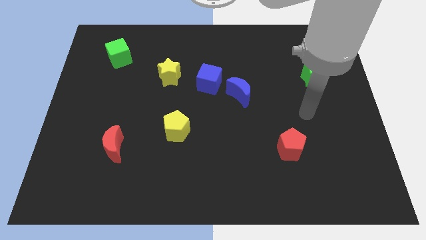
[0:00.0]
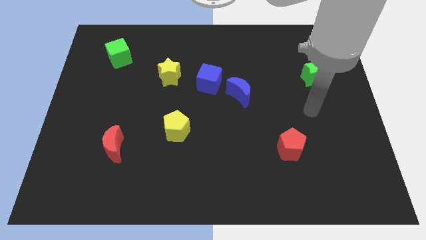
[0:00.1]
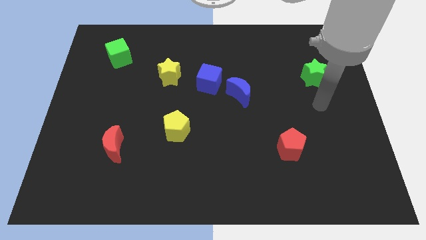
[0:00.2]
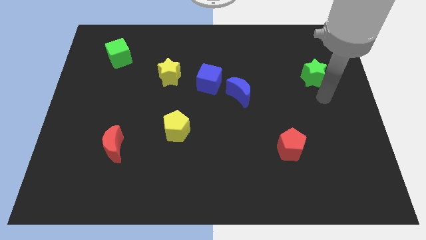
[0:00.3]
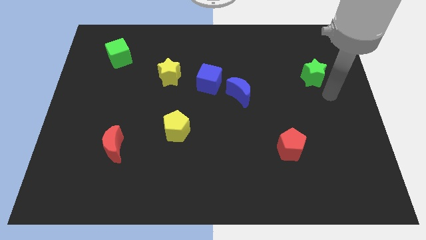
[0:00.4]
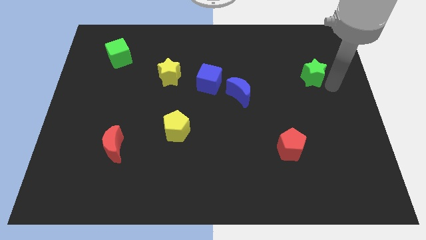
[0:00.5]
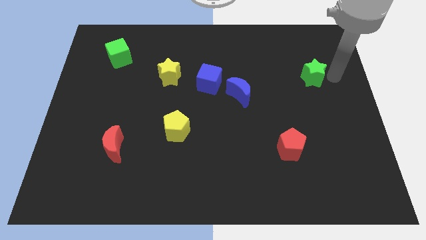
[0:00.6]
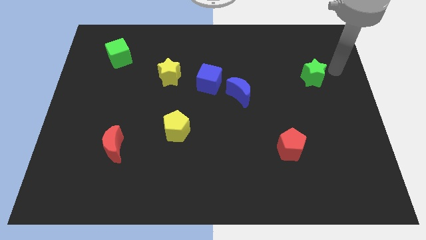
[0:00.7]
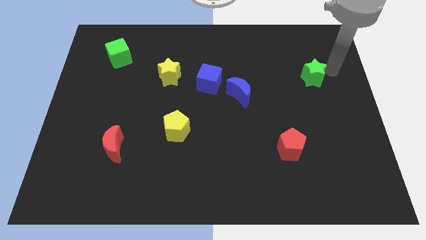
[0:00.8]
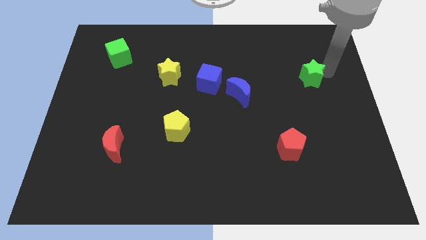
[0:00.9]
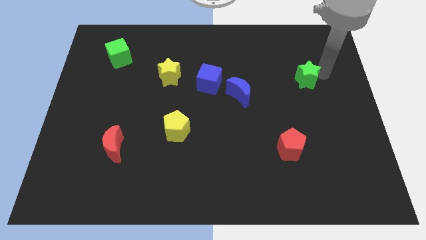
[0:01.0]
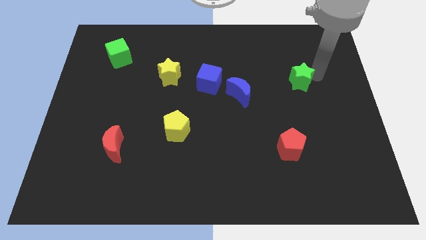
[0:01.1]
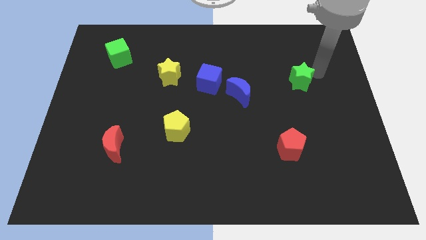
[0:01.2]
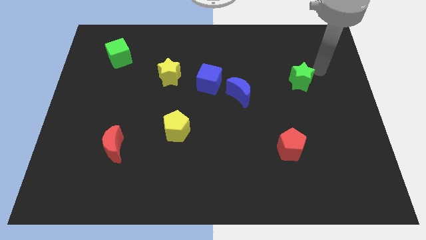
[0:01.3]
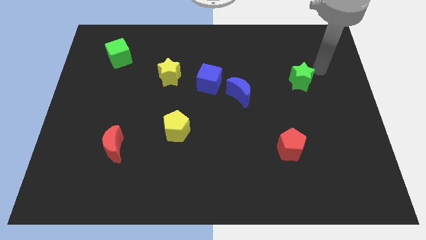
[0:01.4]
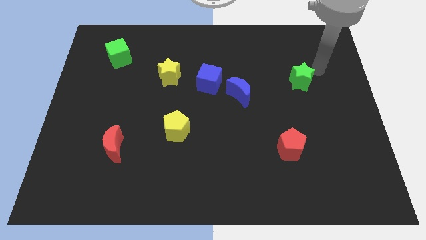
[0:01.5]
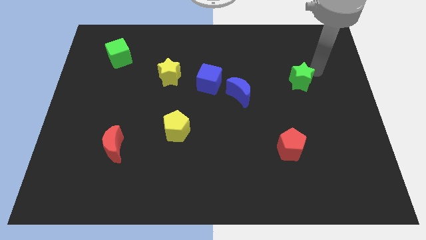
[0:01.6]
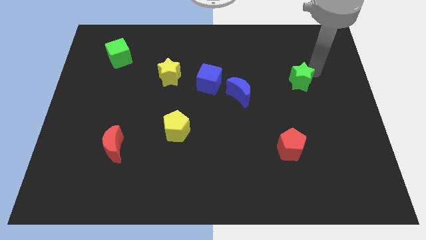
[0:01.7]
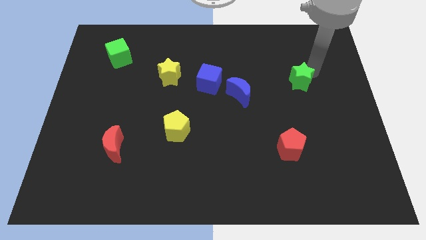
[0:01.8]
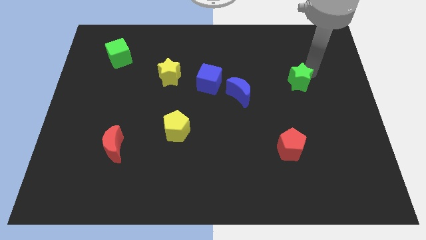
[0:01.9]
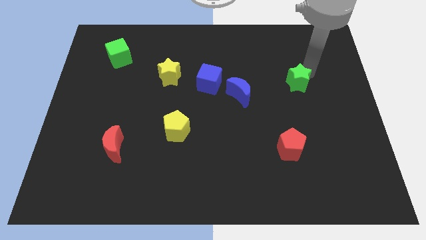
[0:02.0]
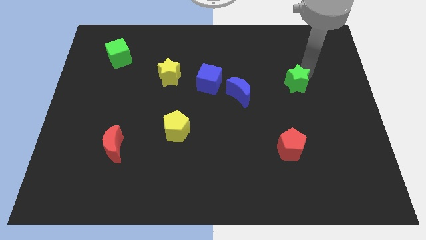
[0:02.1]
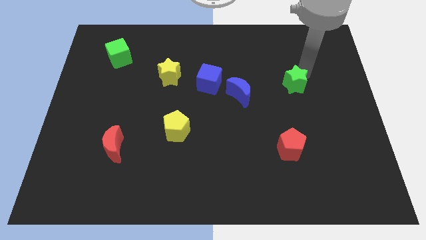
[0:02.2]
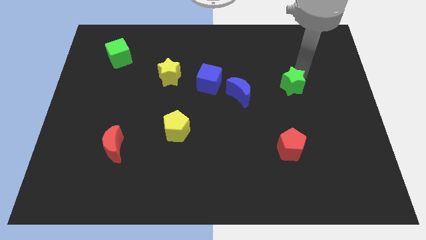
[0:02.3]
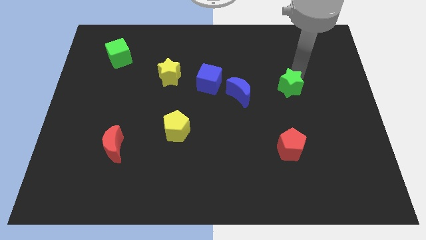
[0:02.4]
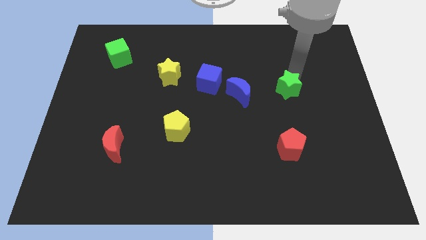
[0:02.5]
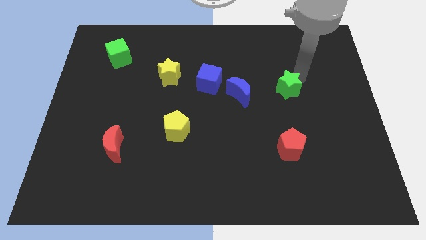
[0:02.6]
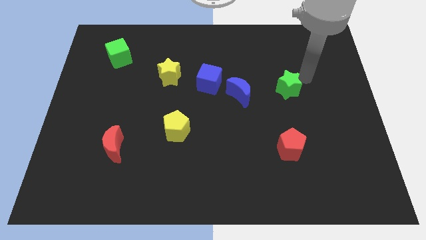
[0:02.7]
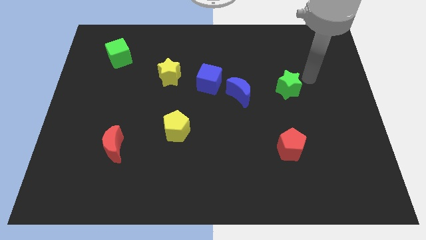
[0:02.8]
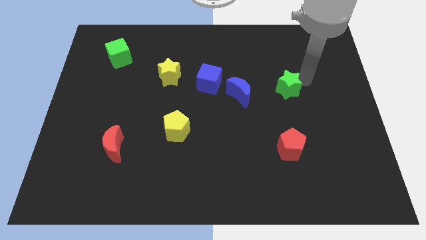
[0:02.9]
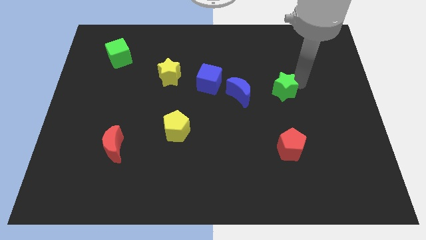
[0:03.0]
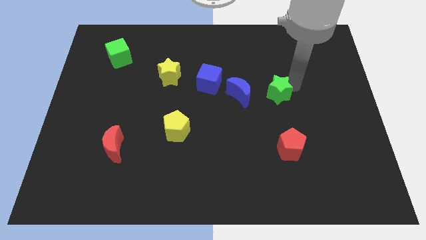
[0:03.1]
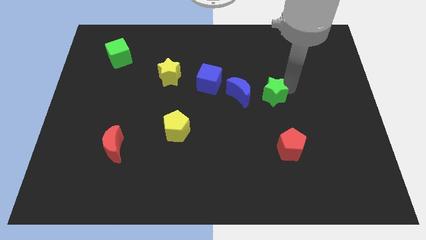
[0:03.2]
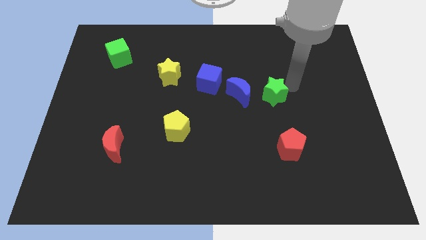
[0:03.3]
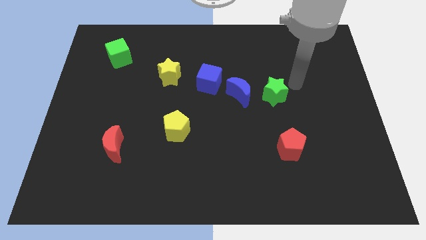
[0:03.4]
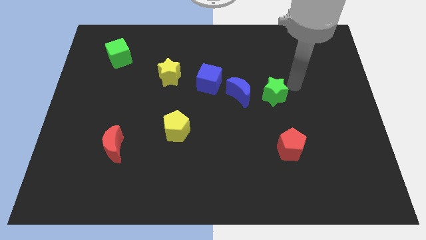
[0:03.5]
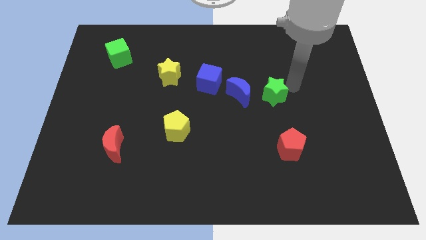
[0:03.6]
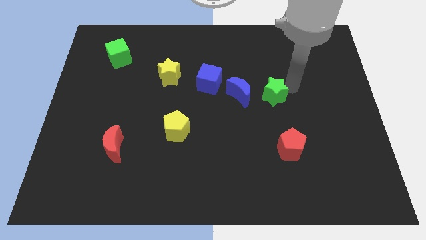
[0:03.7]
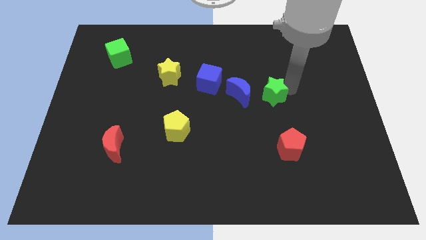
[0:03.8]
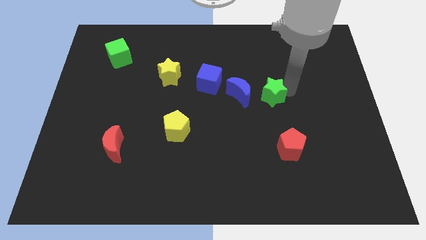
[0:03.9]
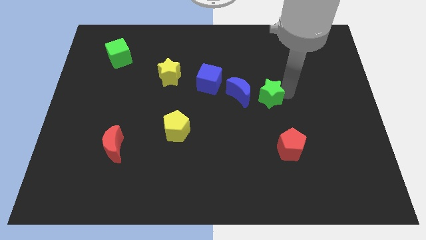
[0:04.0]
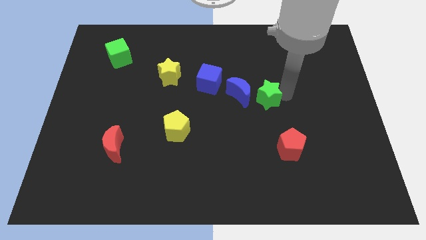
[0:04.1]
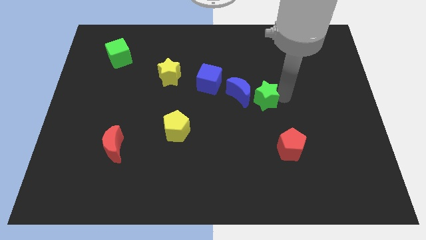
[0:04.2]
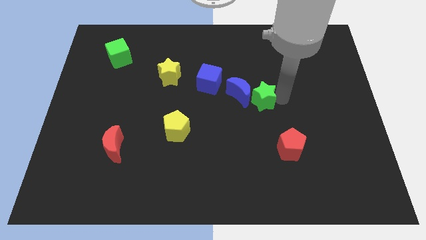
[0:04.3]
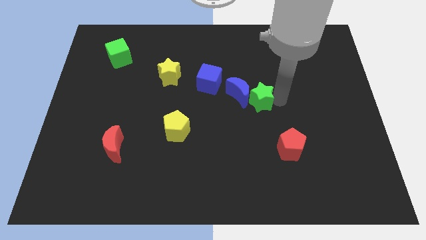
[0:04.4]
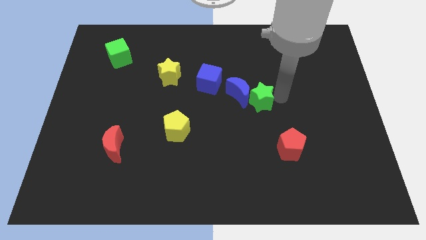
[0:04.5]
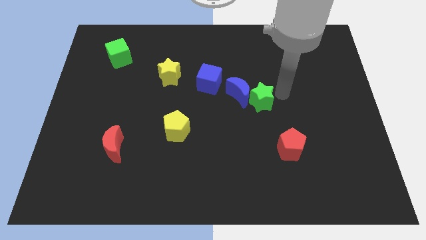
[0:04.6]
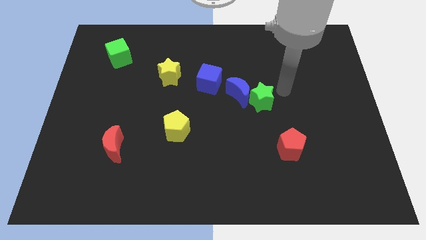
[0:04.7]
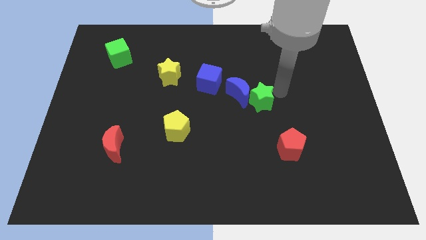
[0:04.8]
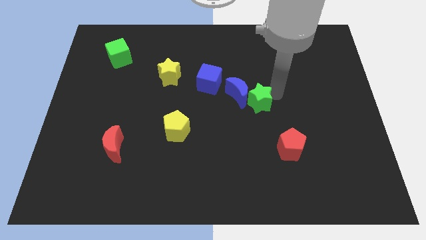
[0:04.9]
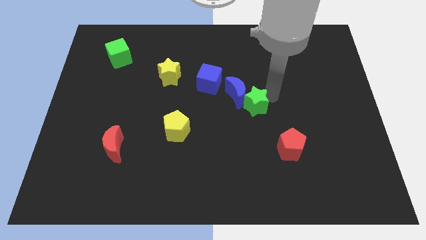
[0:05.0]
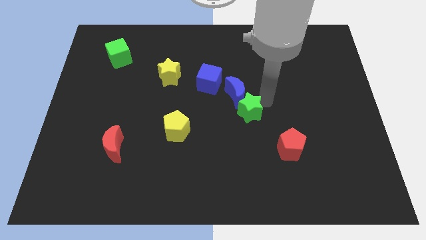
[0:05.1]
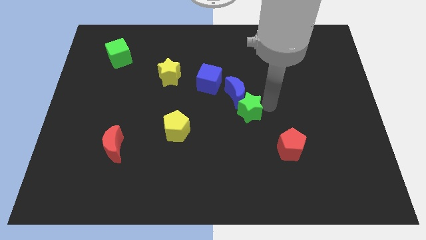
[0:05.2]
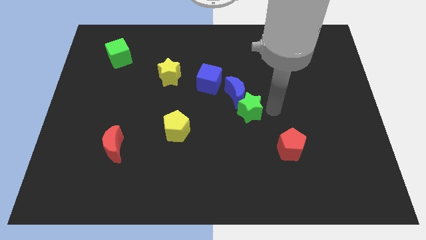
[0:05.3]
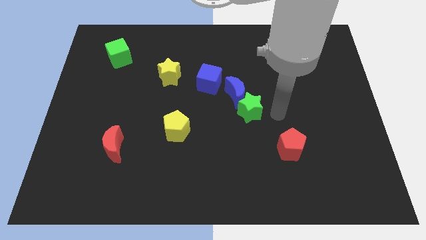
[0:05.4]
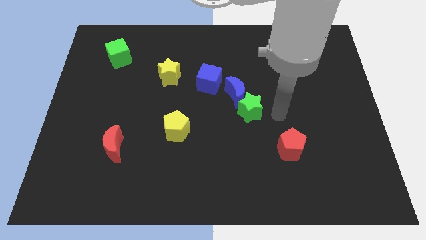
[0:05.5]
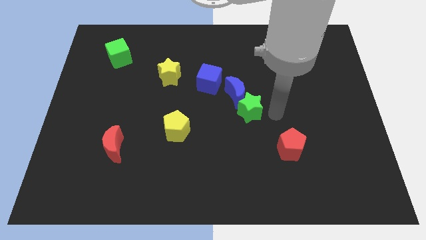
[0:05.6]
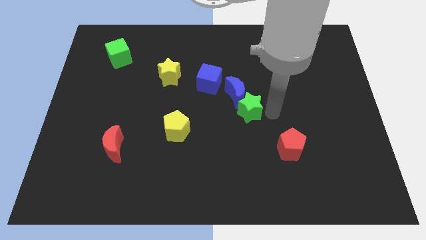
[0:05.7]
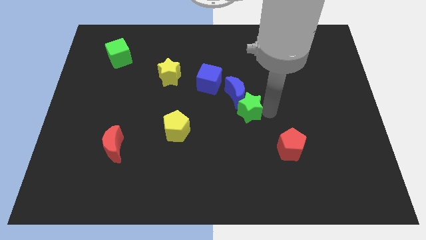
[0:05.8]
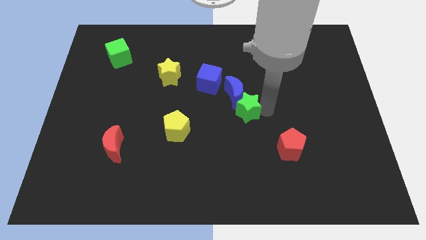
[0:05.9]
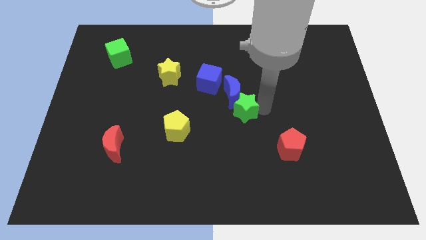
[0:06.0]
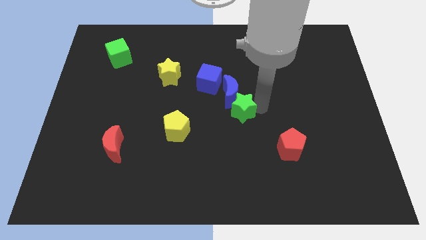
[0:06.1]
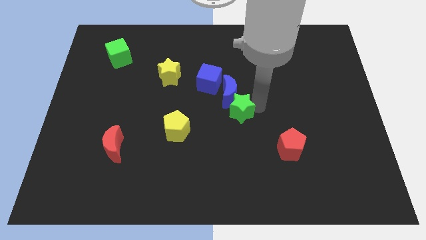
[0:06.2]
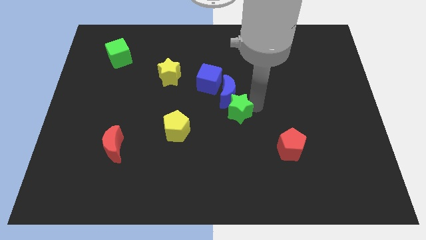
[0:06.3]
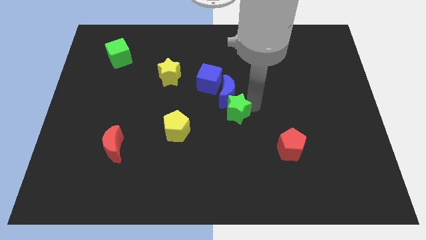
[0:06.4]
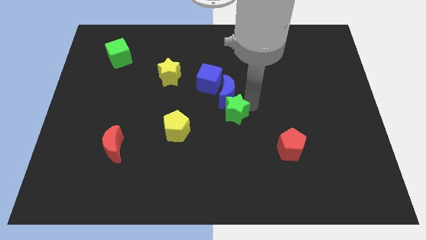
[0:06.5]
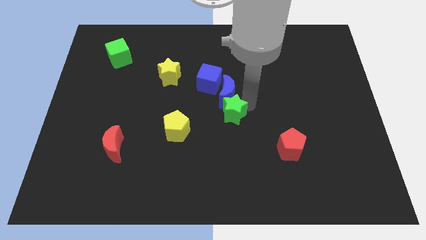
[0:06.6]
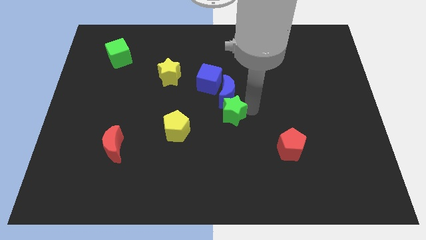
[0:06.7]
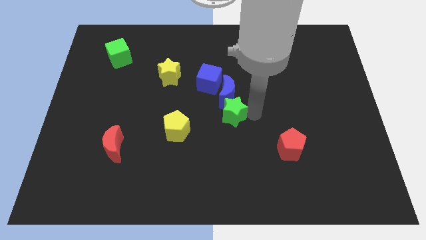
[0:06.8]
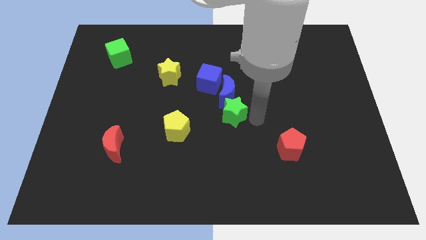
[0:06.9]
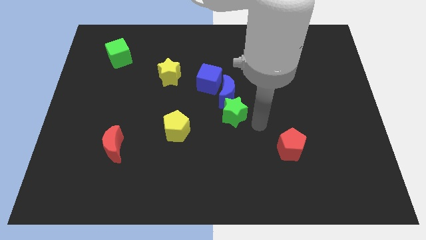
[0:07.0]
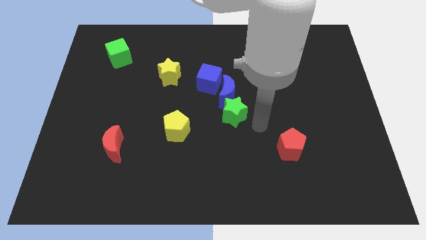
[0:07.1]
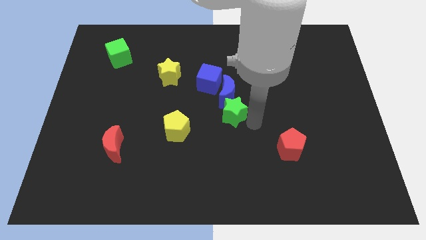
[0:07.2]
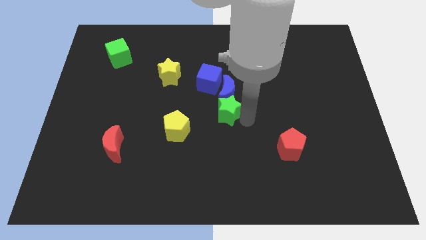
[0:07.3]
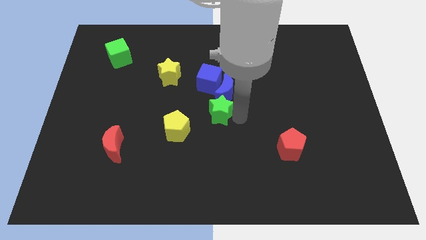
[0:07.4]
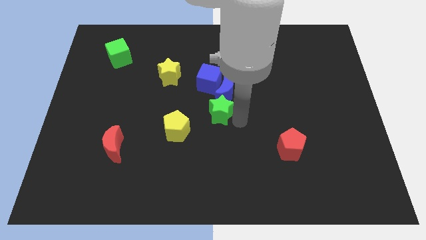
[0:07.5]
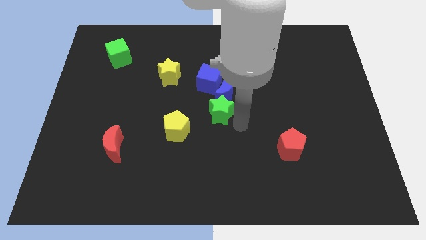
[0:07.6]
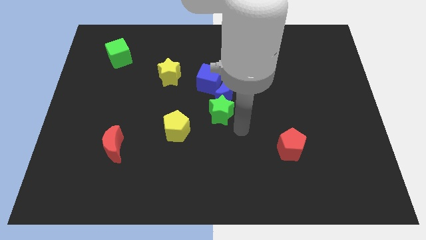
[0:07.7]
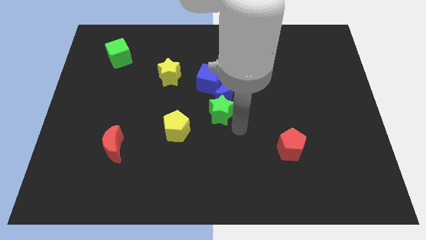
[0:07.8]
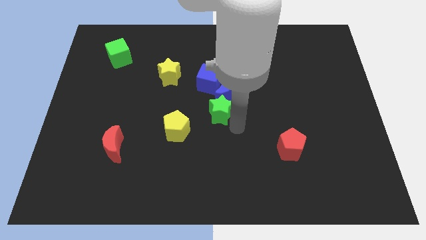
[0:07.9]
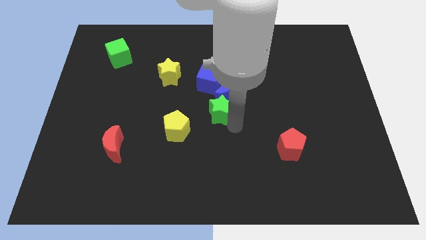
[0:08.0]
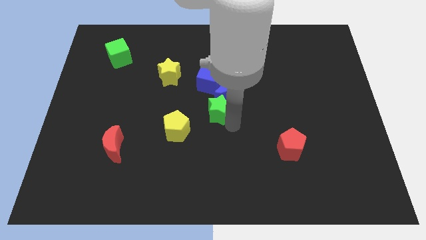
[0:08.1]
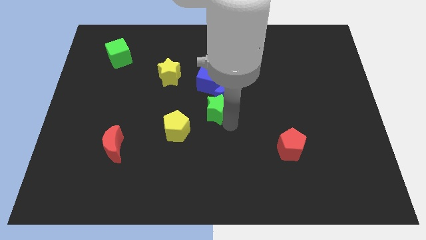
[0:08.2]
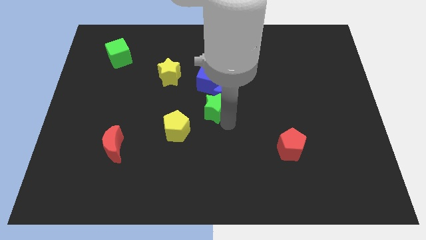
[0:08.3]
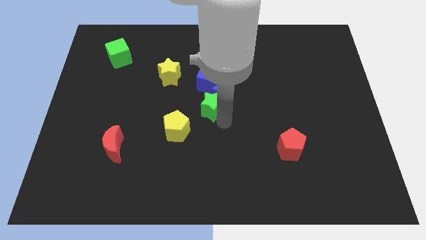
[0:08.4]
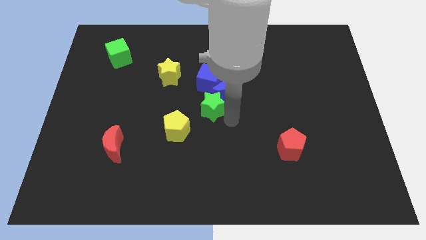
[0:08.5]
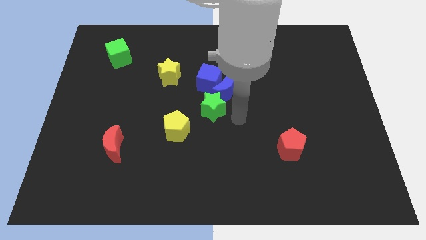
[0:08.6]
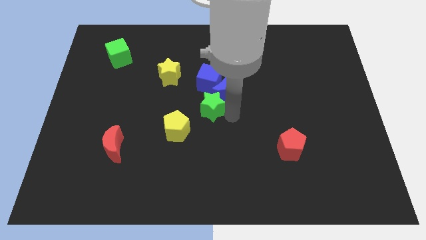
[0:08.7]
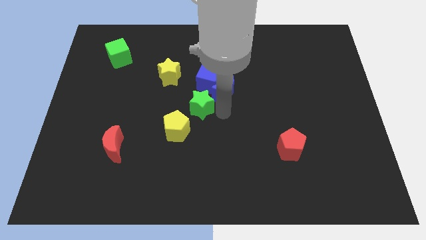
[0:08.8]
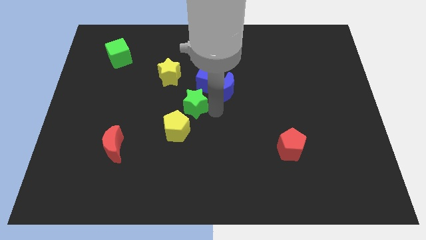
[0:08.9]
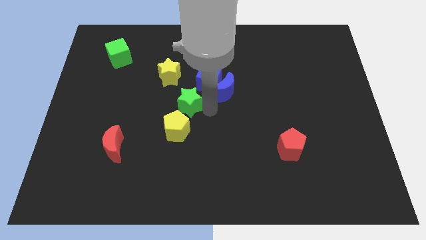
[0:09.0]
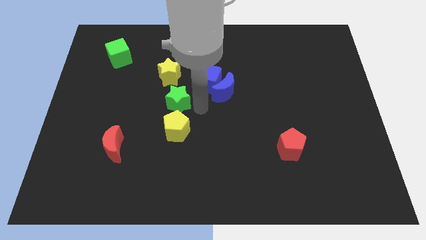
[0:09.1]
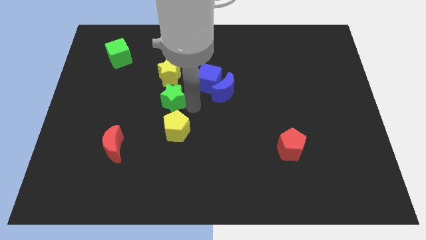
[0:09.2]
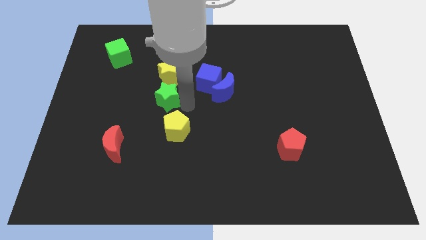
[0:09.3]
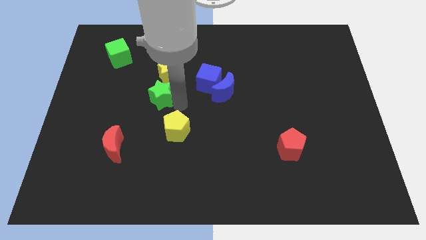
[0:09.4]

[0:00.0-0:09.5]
move the green star just left of the blue cube
